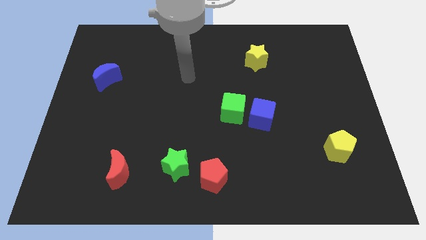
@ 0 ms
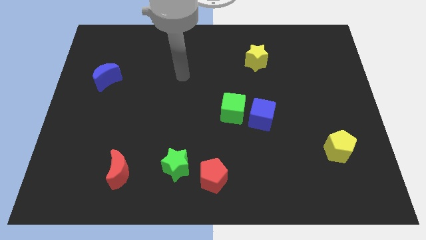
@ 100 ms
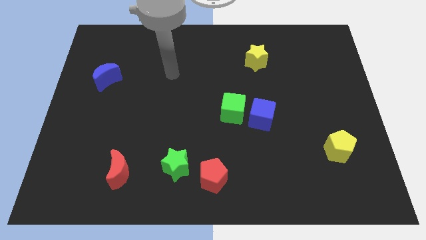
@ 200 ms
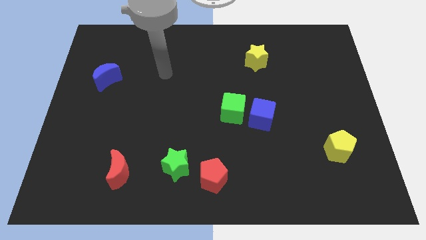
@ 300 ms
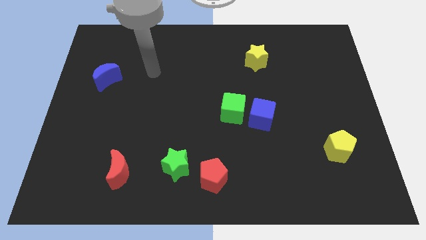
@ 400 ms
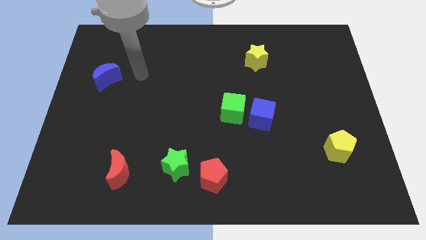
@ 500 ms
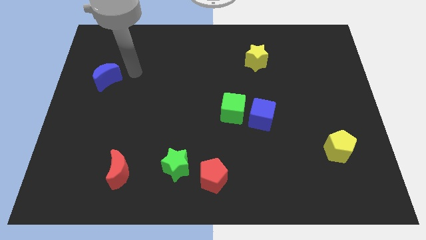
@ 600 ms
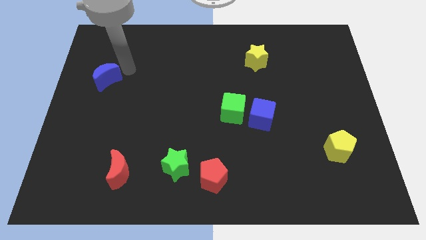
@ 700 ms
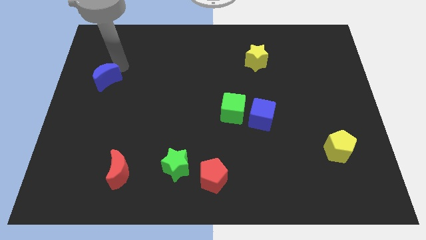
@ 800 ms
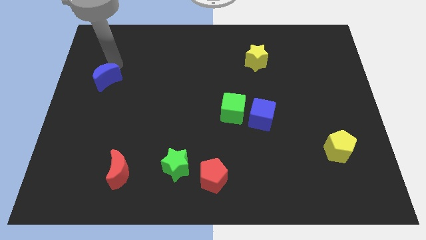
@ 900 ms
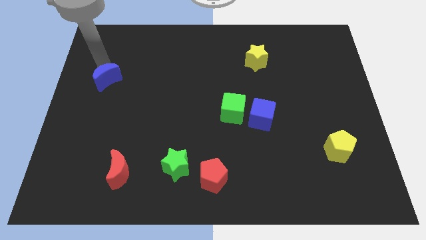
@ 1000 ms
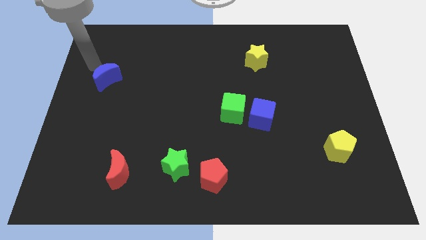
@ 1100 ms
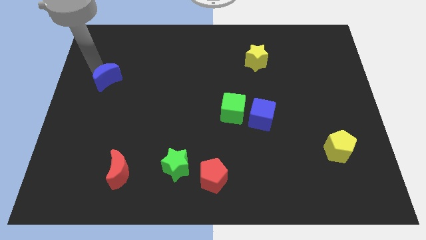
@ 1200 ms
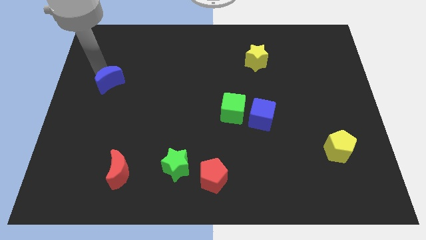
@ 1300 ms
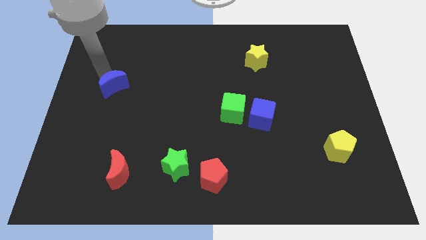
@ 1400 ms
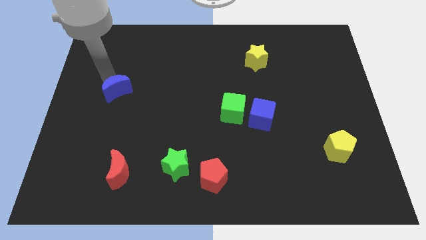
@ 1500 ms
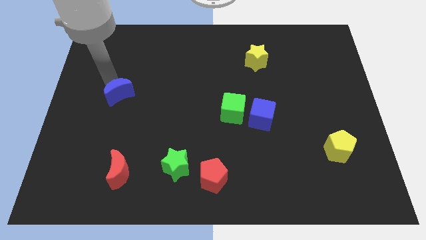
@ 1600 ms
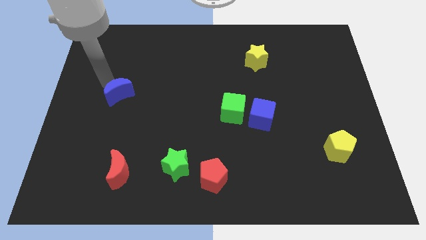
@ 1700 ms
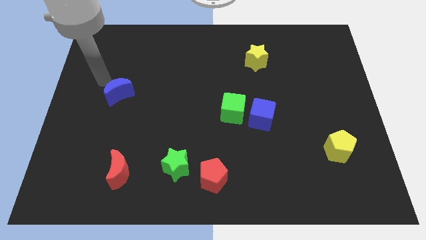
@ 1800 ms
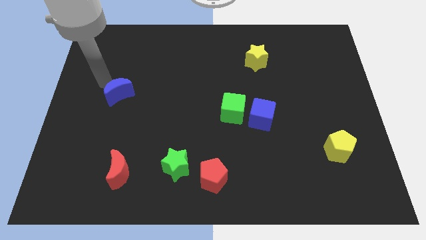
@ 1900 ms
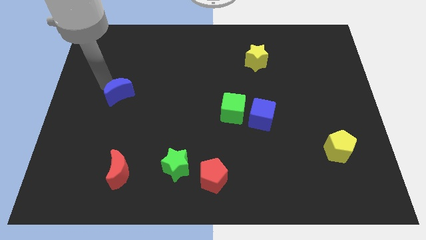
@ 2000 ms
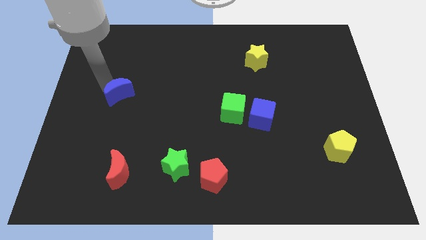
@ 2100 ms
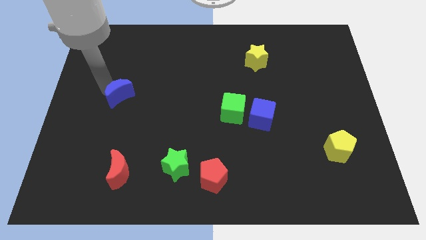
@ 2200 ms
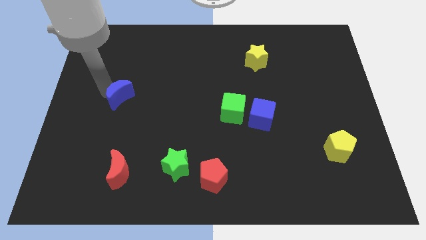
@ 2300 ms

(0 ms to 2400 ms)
slightly push the blue moon downwards and right diagonally

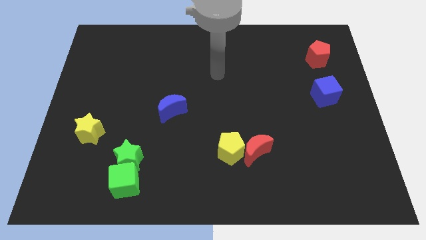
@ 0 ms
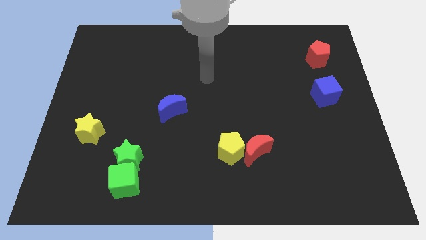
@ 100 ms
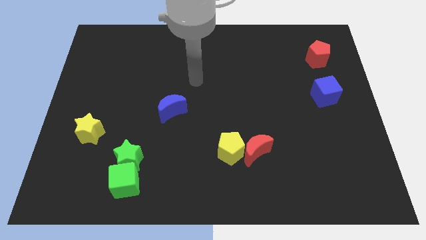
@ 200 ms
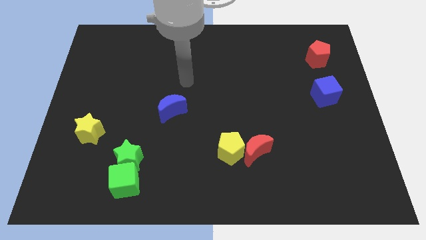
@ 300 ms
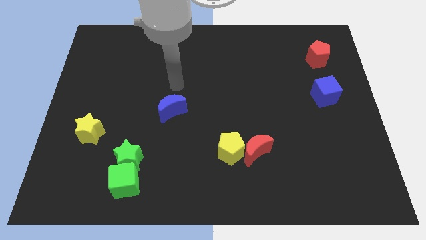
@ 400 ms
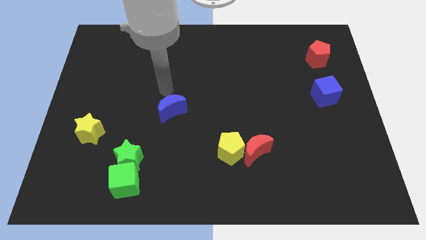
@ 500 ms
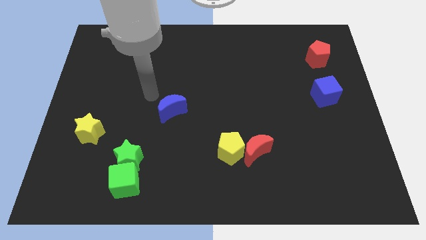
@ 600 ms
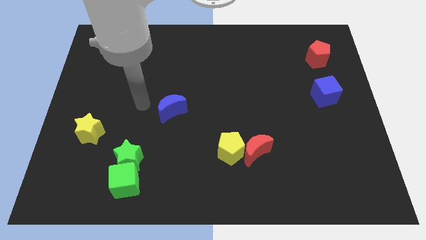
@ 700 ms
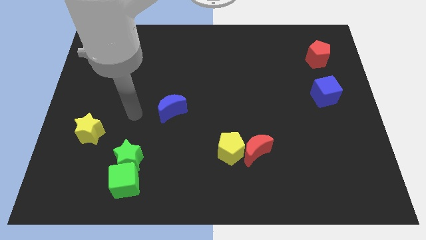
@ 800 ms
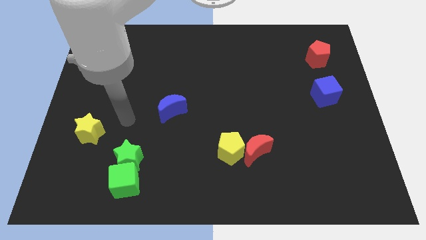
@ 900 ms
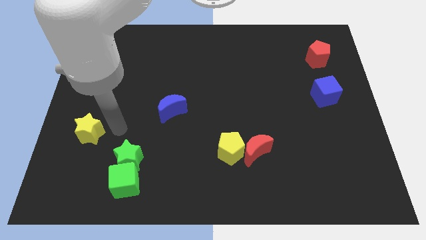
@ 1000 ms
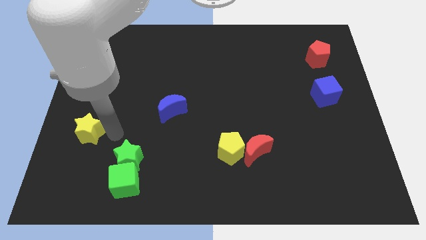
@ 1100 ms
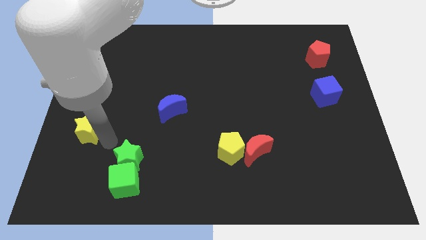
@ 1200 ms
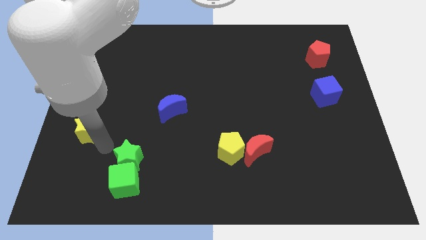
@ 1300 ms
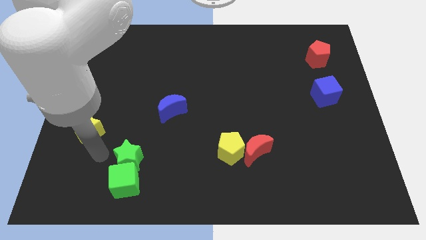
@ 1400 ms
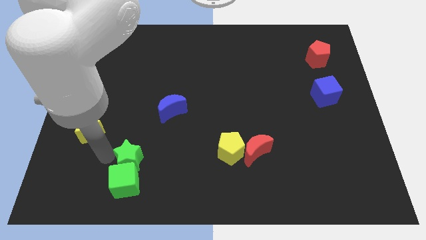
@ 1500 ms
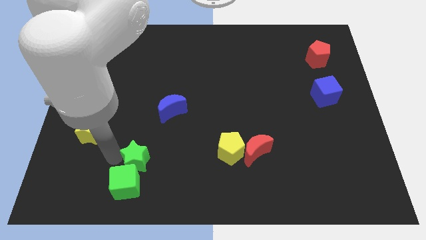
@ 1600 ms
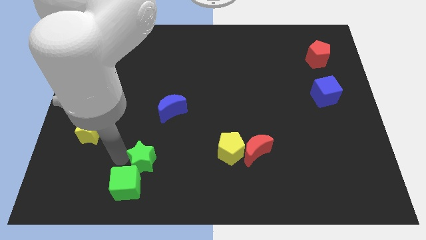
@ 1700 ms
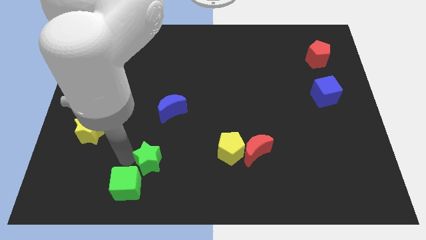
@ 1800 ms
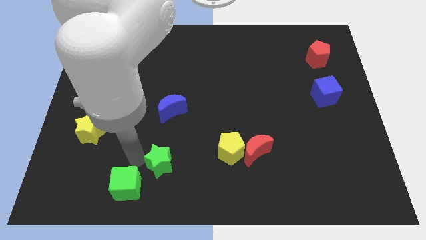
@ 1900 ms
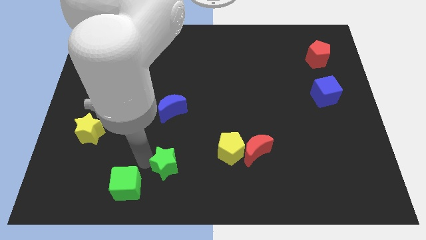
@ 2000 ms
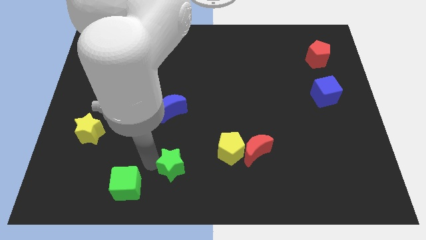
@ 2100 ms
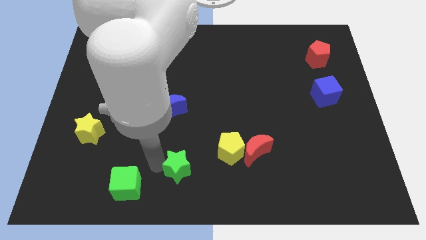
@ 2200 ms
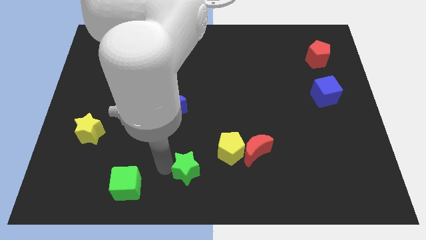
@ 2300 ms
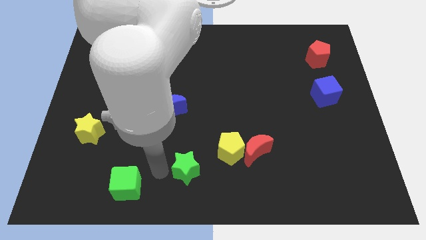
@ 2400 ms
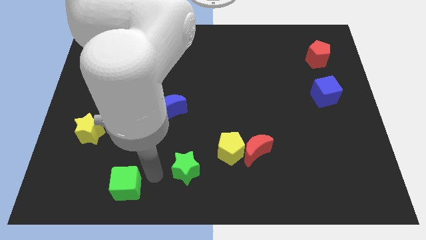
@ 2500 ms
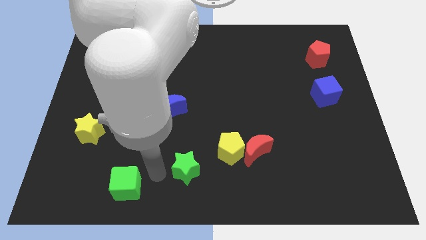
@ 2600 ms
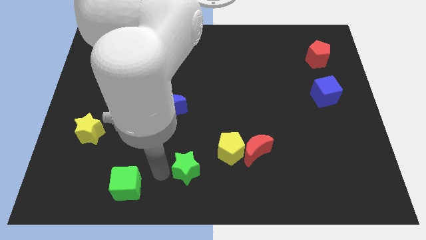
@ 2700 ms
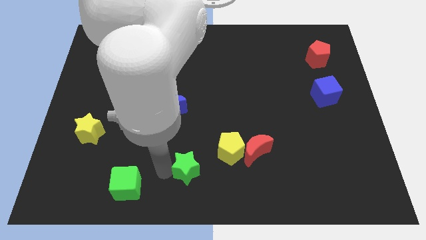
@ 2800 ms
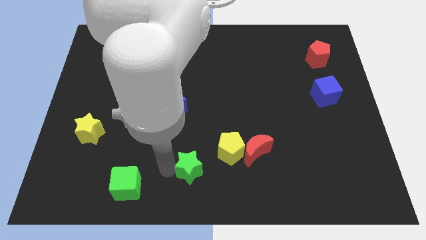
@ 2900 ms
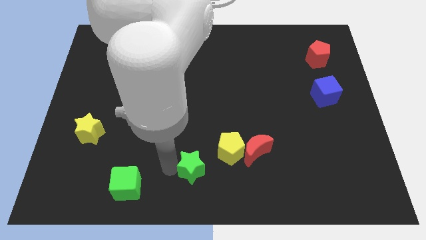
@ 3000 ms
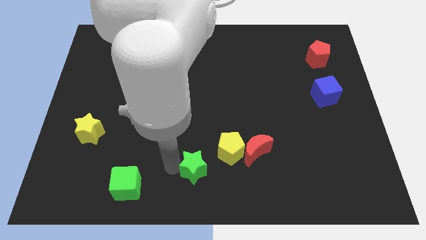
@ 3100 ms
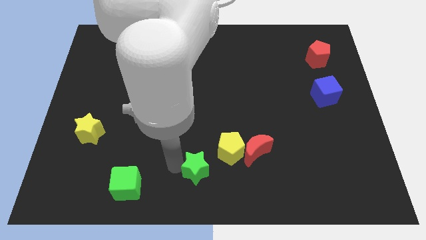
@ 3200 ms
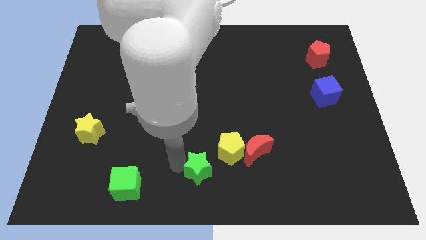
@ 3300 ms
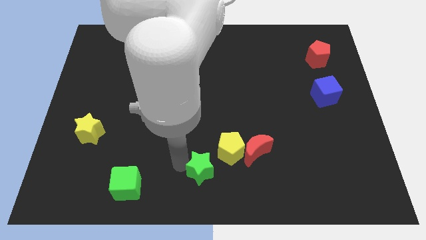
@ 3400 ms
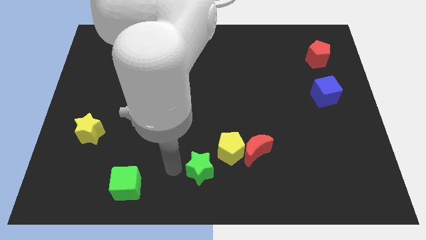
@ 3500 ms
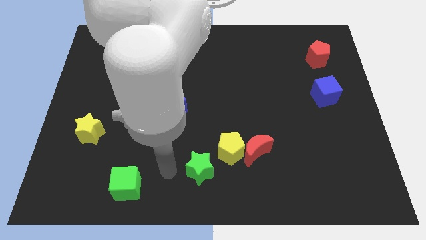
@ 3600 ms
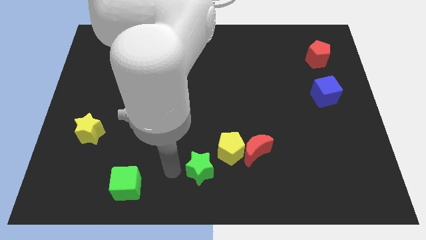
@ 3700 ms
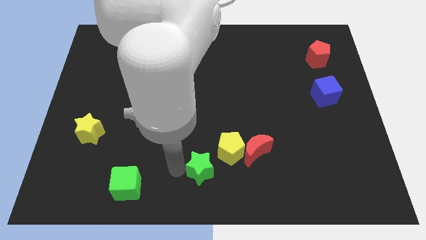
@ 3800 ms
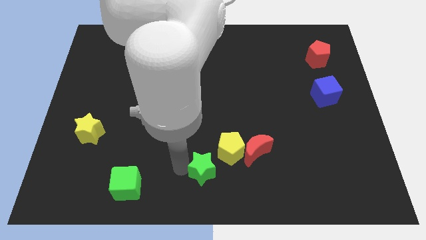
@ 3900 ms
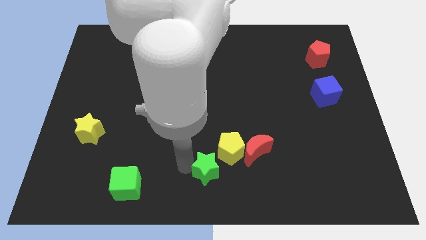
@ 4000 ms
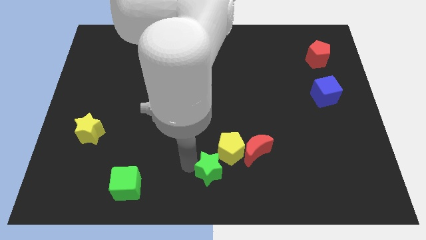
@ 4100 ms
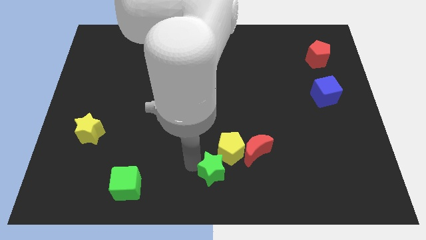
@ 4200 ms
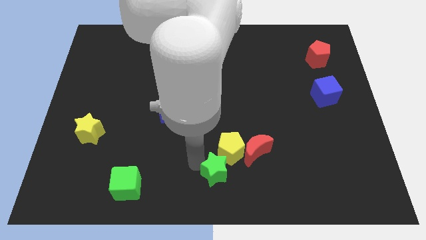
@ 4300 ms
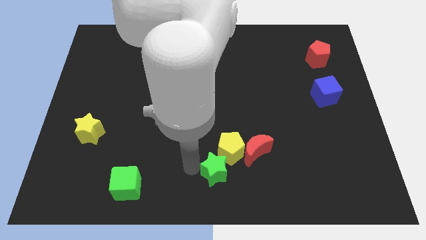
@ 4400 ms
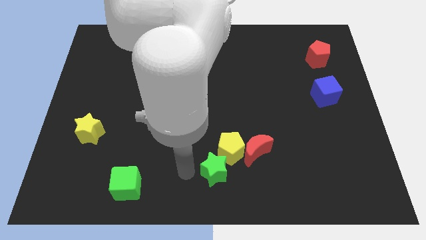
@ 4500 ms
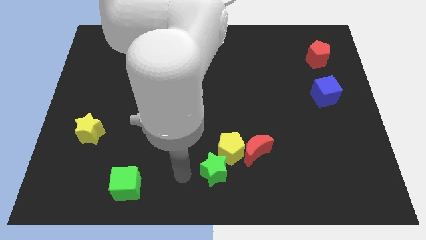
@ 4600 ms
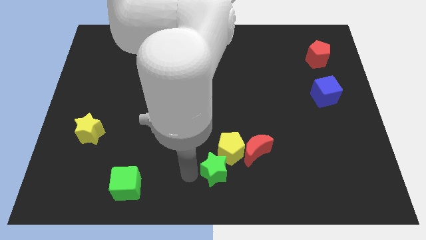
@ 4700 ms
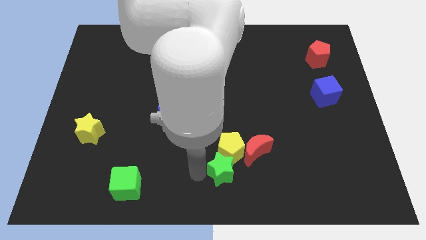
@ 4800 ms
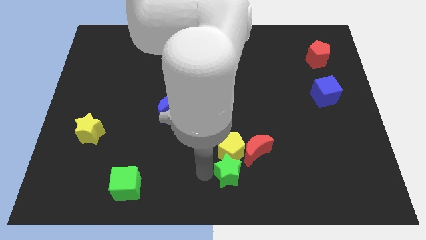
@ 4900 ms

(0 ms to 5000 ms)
push the green star right

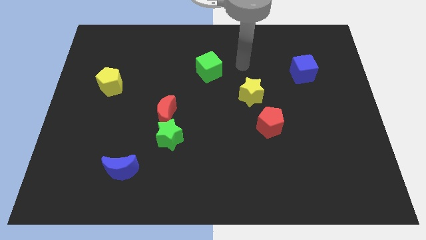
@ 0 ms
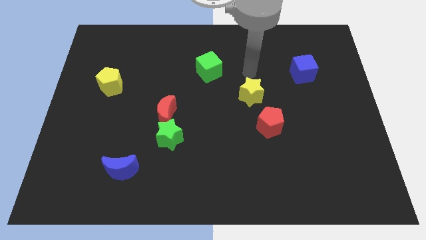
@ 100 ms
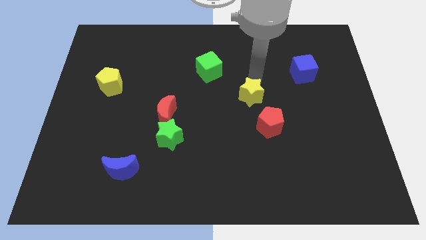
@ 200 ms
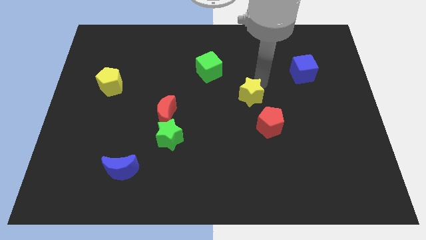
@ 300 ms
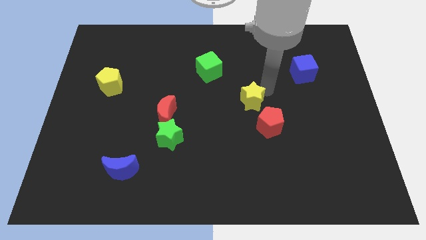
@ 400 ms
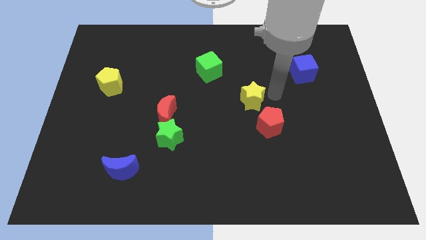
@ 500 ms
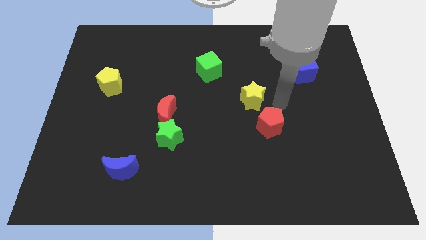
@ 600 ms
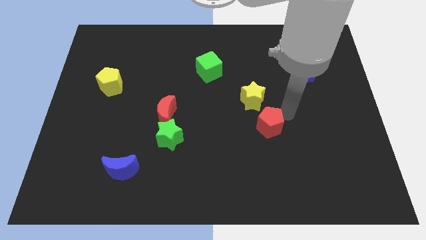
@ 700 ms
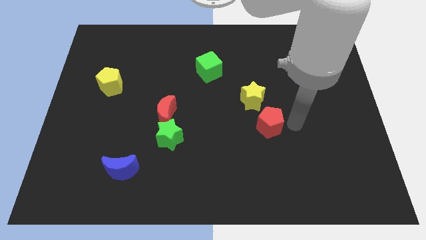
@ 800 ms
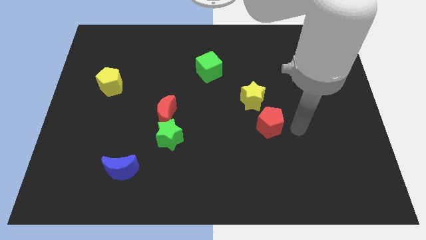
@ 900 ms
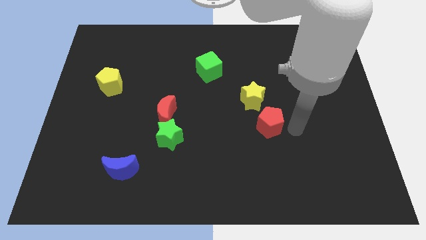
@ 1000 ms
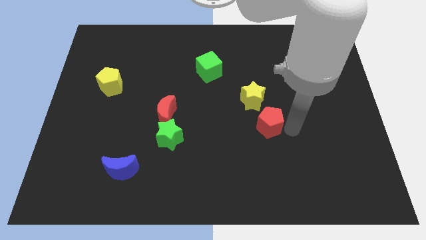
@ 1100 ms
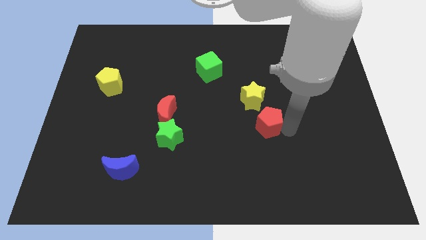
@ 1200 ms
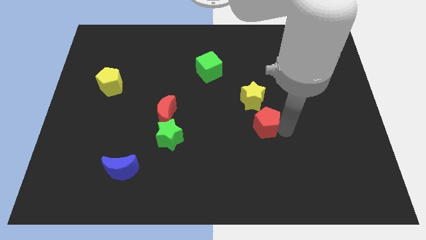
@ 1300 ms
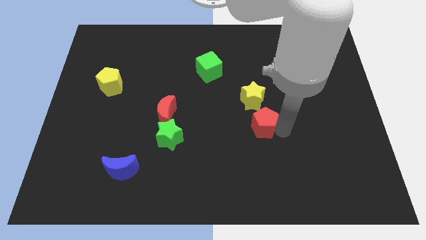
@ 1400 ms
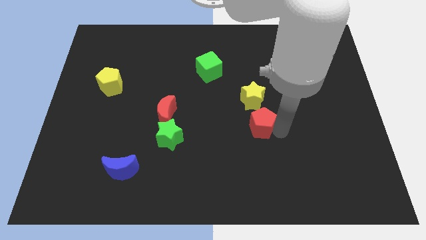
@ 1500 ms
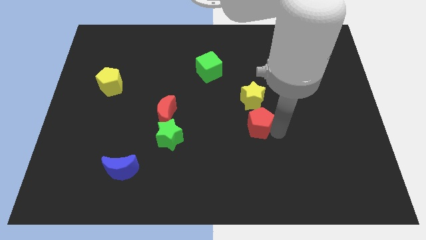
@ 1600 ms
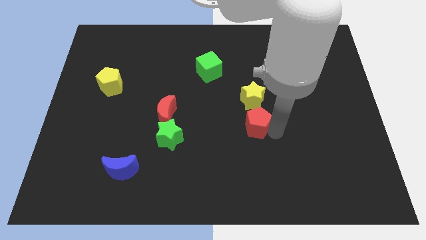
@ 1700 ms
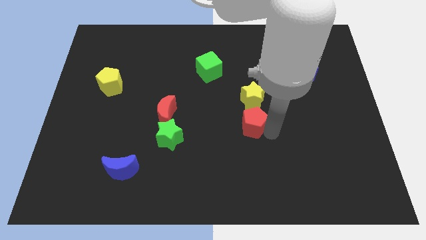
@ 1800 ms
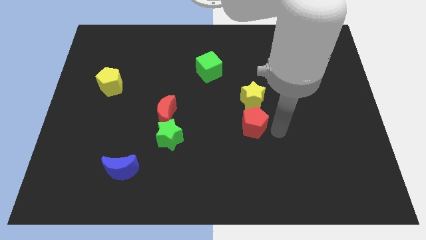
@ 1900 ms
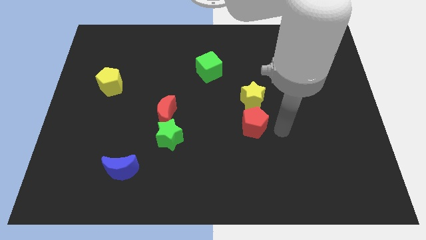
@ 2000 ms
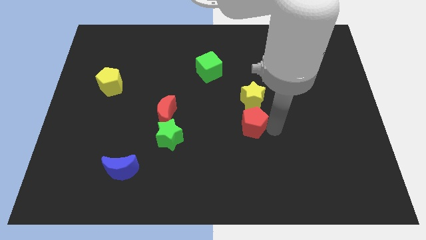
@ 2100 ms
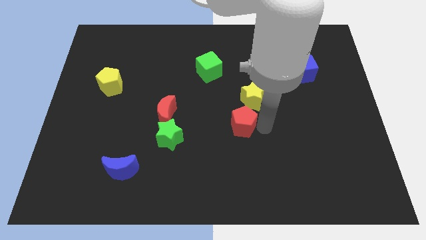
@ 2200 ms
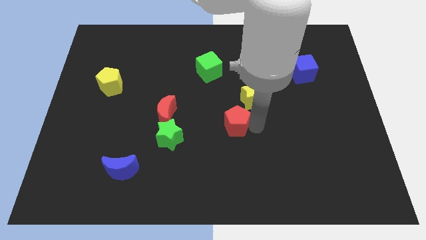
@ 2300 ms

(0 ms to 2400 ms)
slide the red pentagon a bit to the left
